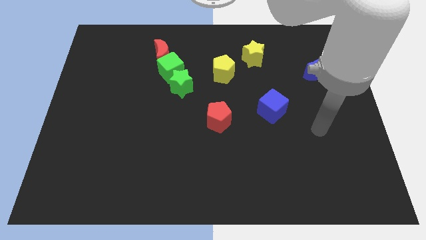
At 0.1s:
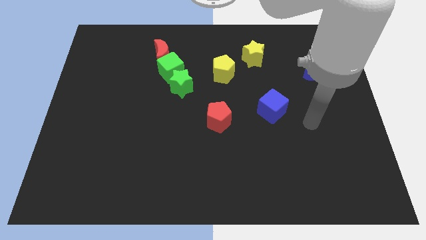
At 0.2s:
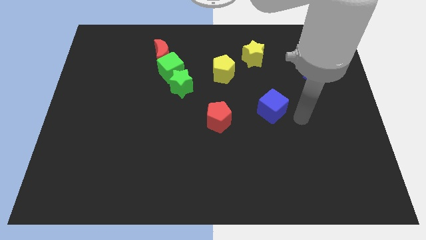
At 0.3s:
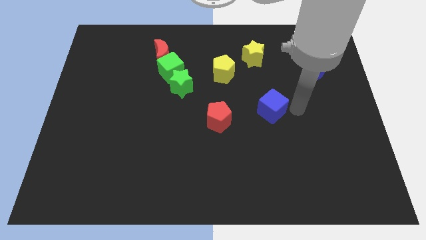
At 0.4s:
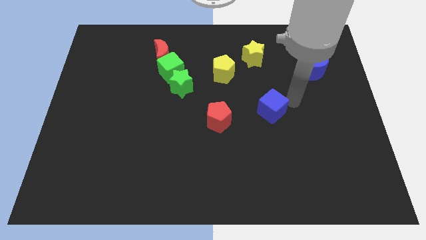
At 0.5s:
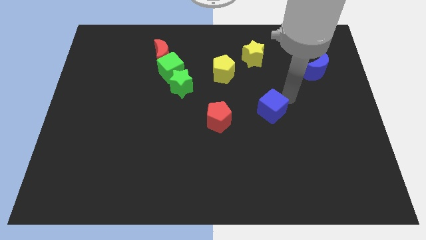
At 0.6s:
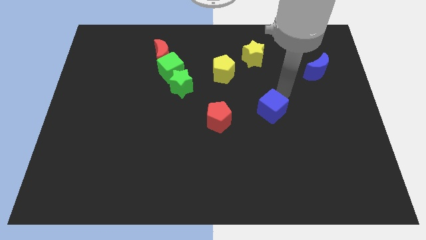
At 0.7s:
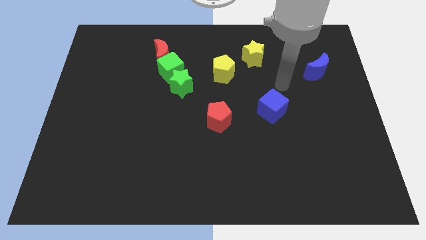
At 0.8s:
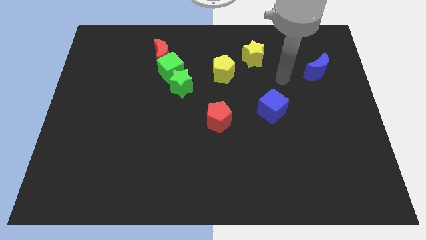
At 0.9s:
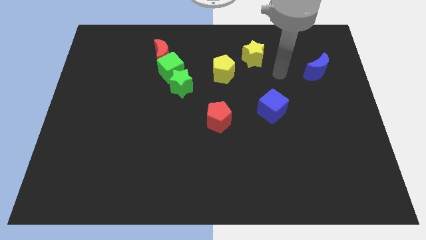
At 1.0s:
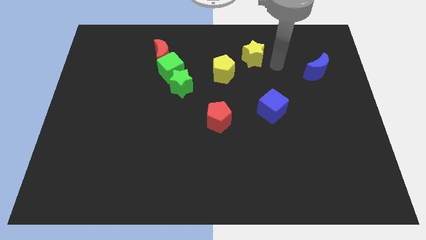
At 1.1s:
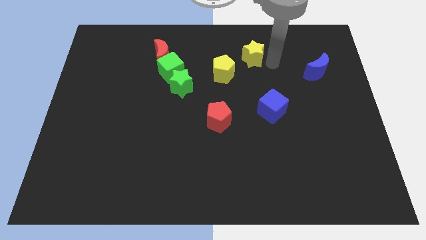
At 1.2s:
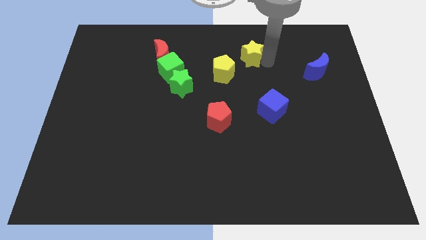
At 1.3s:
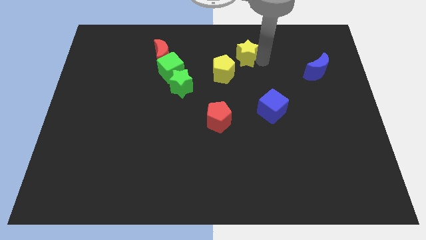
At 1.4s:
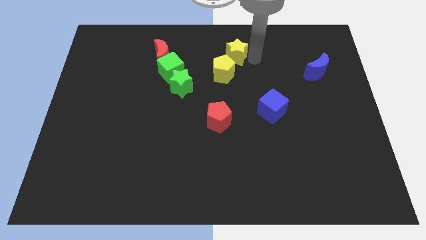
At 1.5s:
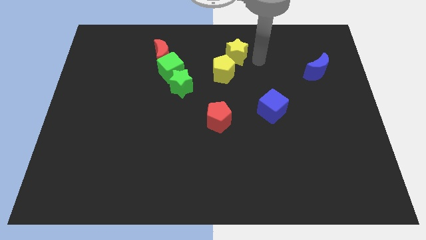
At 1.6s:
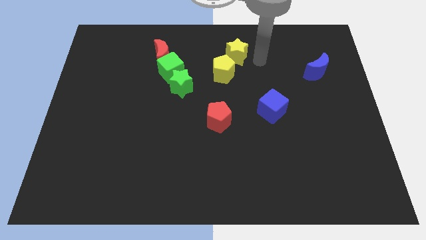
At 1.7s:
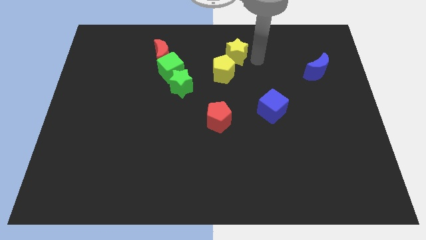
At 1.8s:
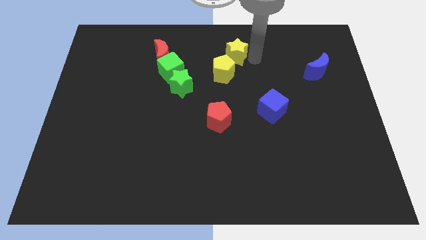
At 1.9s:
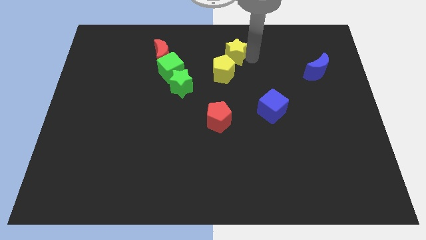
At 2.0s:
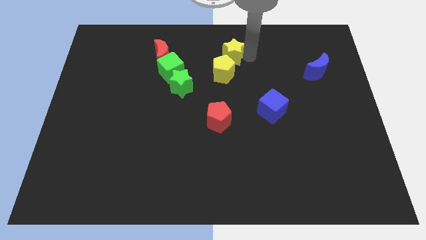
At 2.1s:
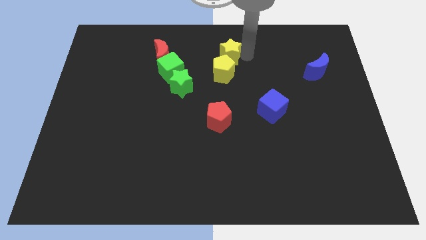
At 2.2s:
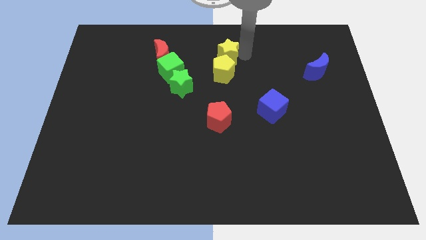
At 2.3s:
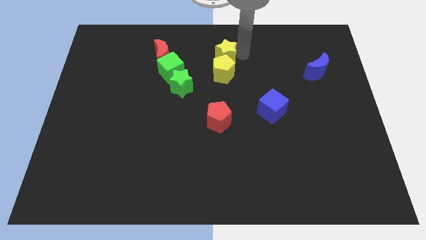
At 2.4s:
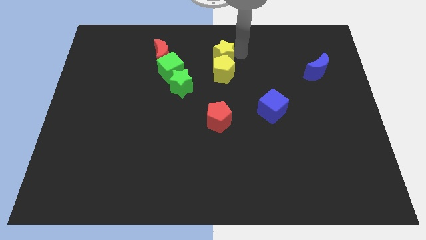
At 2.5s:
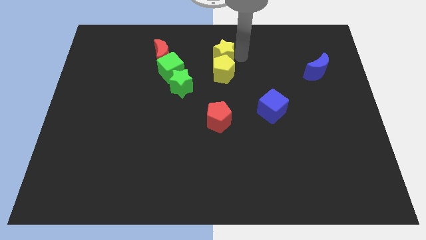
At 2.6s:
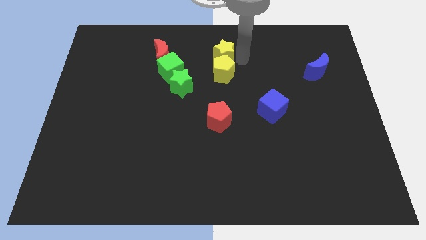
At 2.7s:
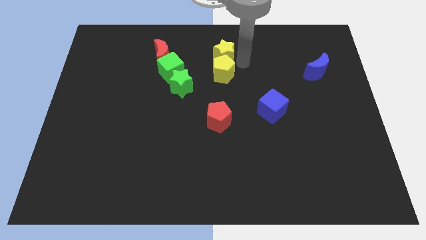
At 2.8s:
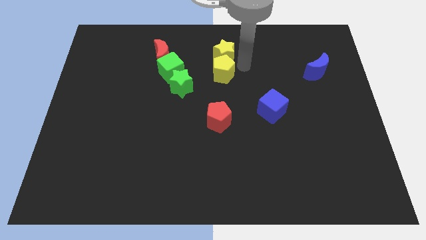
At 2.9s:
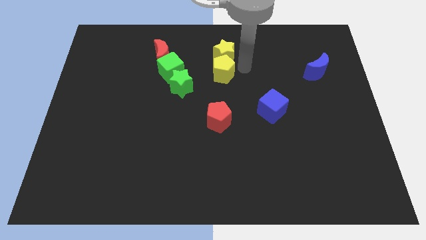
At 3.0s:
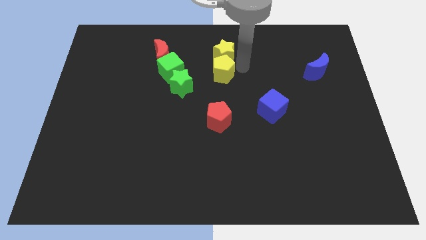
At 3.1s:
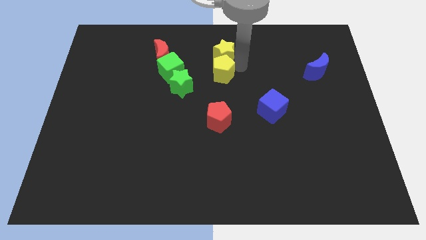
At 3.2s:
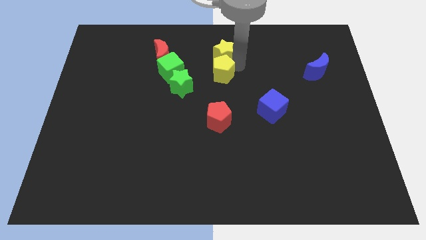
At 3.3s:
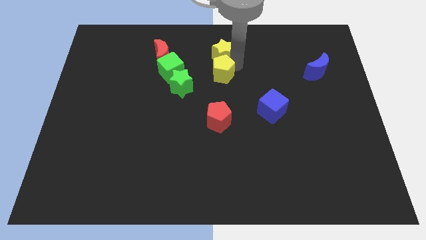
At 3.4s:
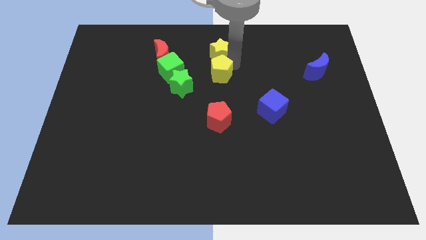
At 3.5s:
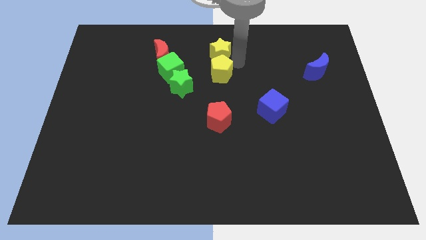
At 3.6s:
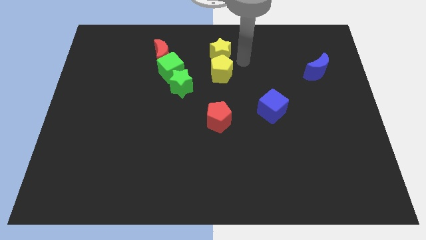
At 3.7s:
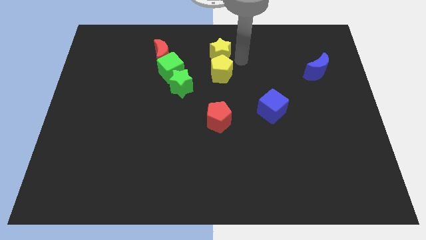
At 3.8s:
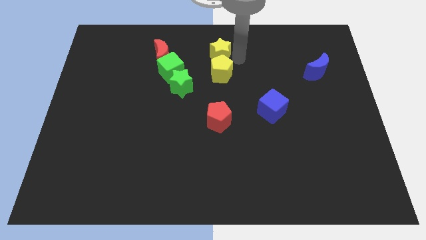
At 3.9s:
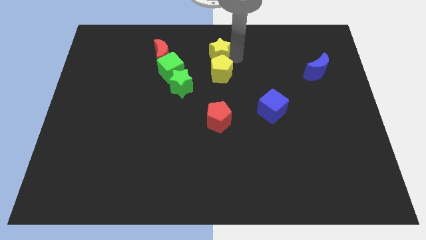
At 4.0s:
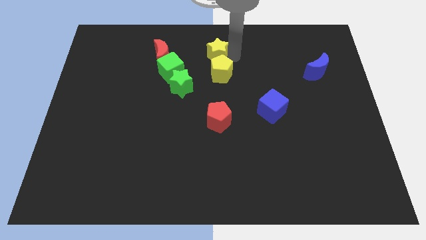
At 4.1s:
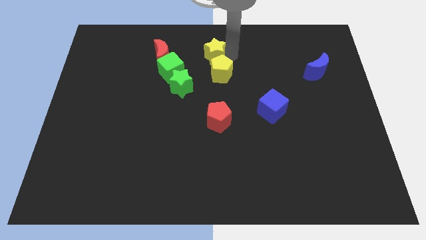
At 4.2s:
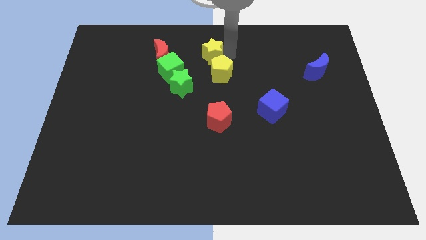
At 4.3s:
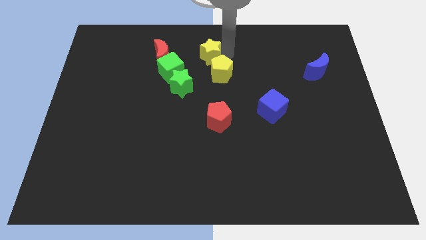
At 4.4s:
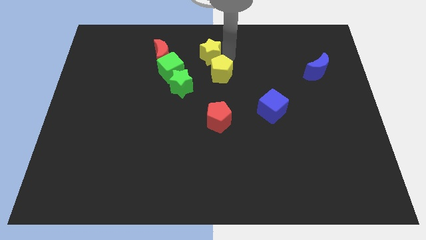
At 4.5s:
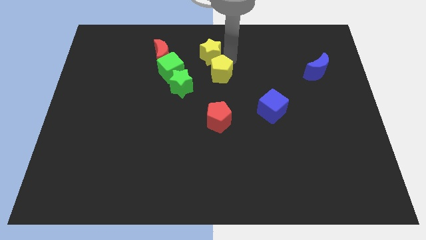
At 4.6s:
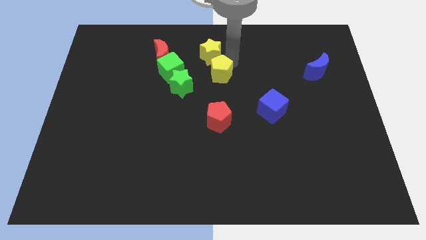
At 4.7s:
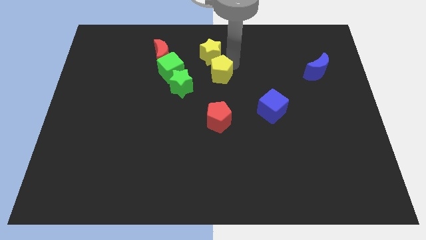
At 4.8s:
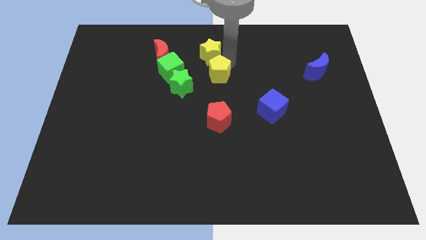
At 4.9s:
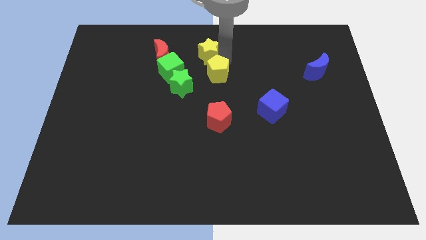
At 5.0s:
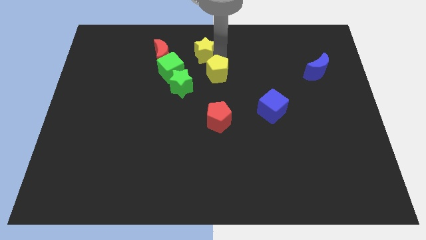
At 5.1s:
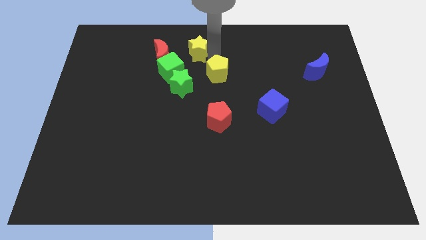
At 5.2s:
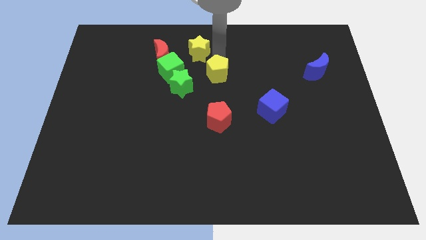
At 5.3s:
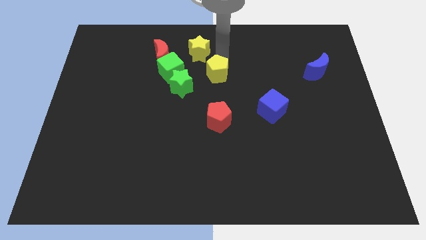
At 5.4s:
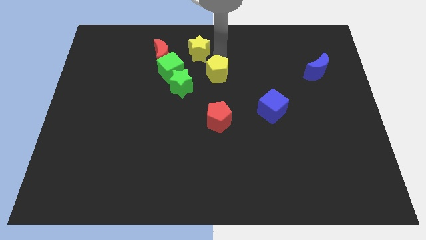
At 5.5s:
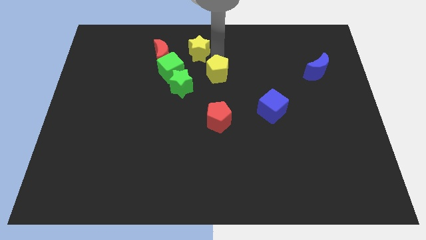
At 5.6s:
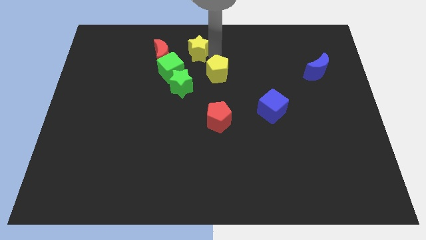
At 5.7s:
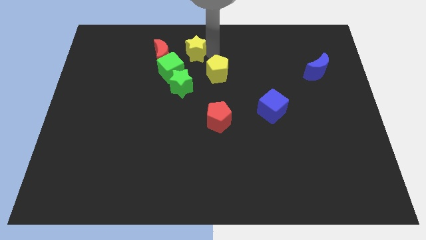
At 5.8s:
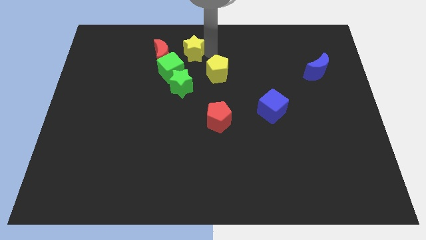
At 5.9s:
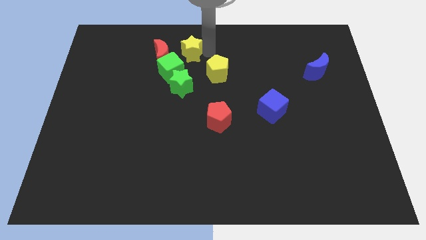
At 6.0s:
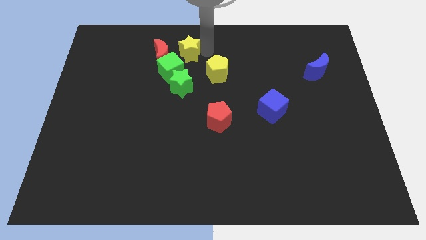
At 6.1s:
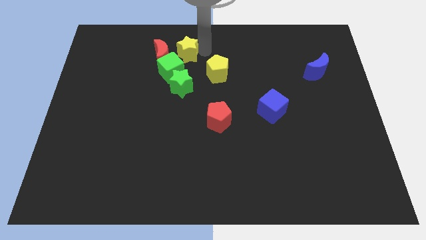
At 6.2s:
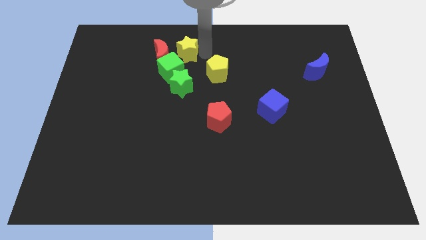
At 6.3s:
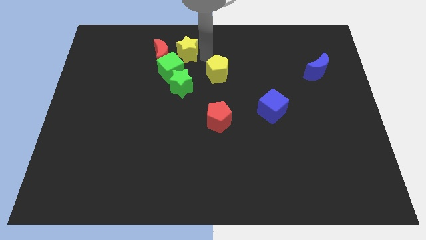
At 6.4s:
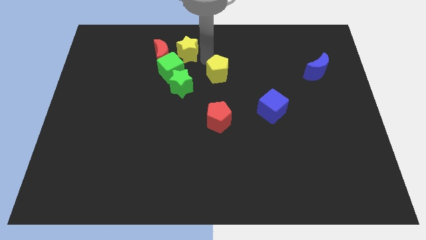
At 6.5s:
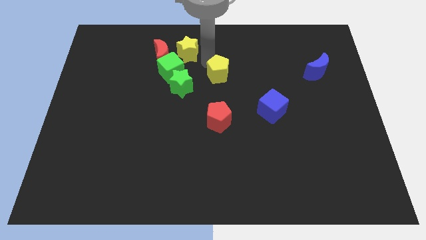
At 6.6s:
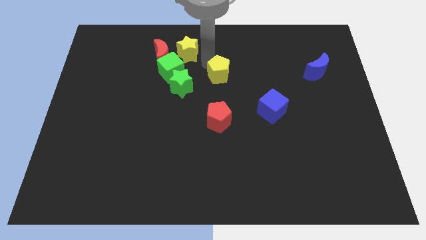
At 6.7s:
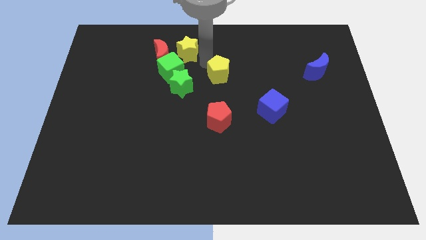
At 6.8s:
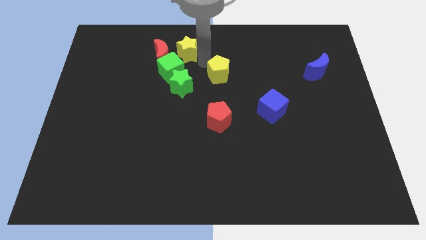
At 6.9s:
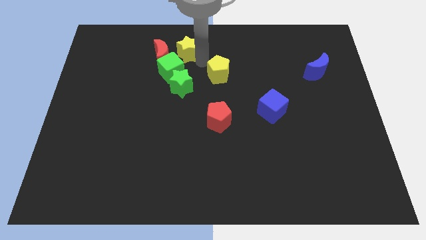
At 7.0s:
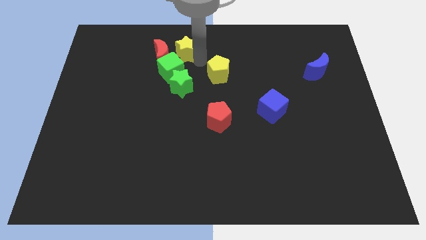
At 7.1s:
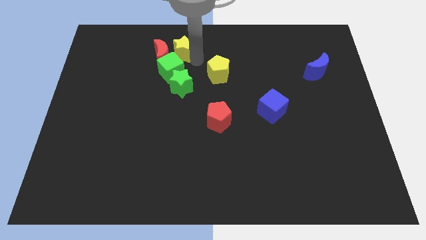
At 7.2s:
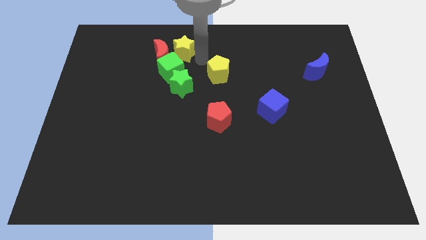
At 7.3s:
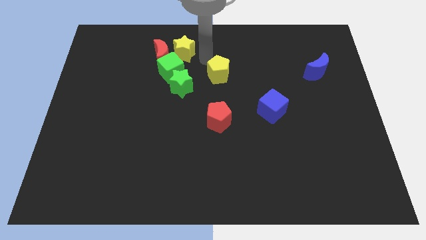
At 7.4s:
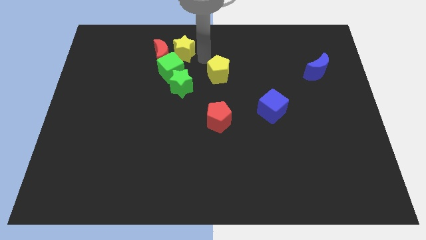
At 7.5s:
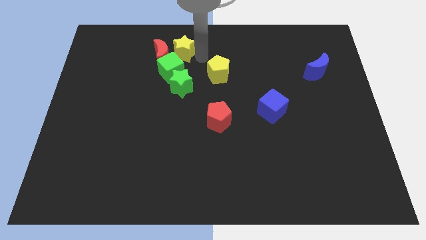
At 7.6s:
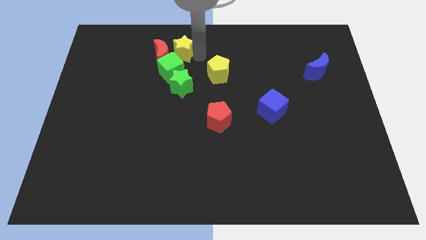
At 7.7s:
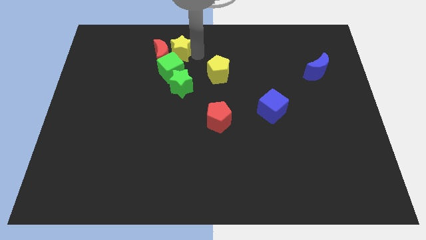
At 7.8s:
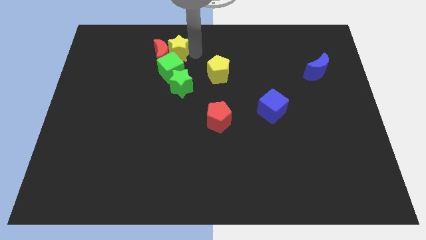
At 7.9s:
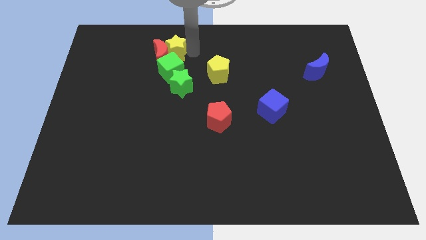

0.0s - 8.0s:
move the yellow star to the left

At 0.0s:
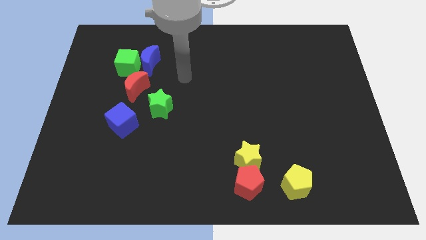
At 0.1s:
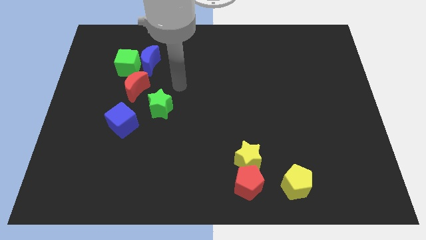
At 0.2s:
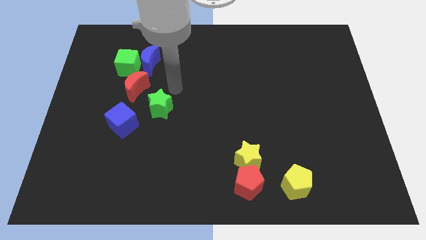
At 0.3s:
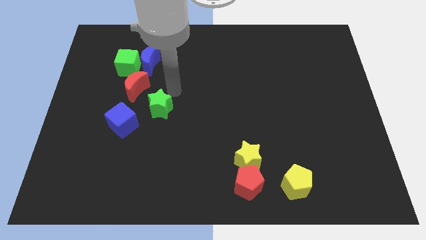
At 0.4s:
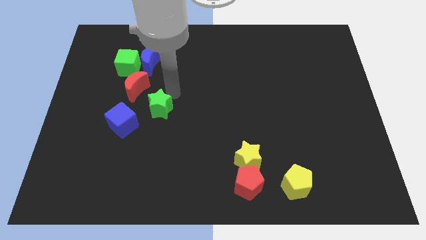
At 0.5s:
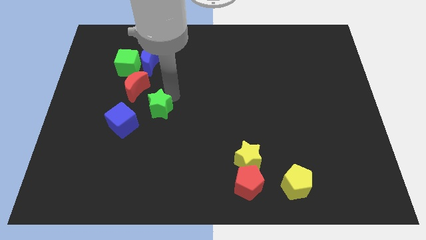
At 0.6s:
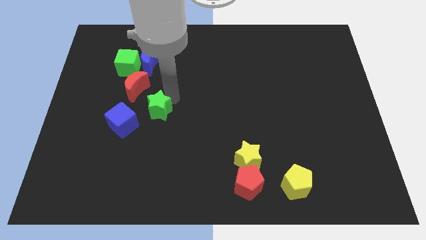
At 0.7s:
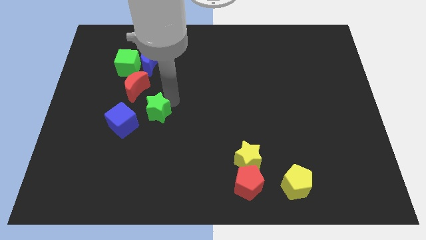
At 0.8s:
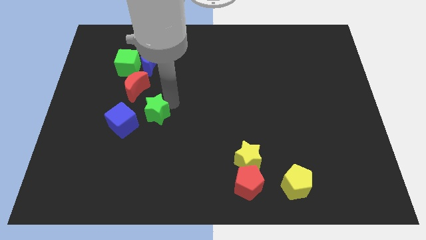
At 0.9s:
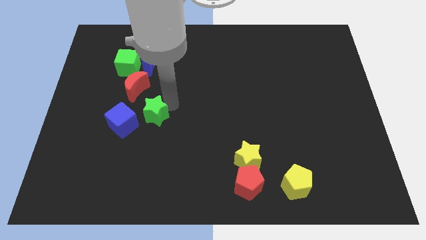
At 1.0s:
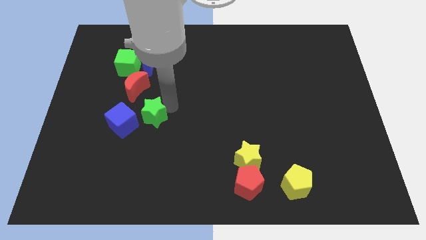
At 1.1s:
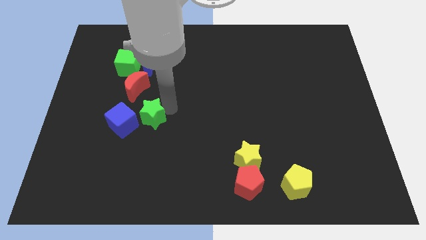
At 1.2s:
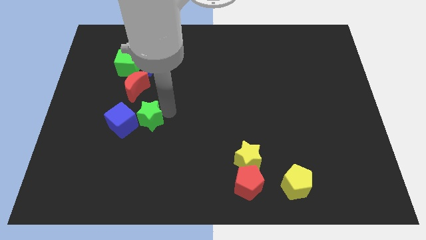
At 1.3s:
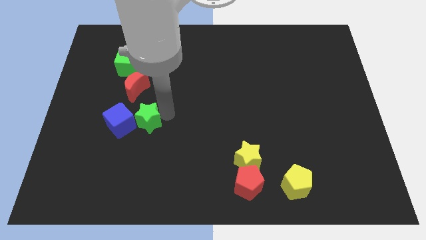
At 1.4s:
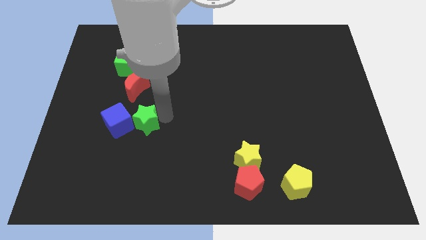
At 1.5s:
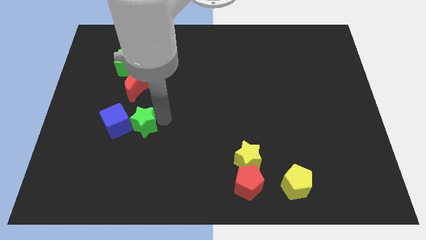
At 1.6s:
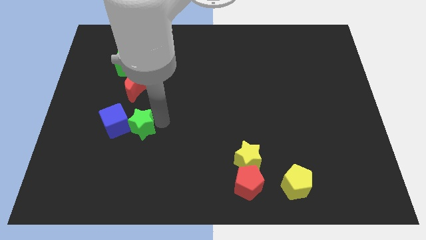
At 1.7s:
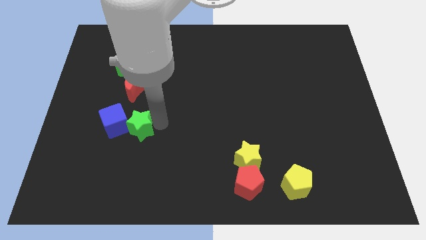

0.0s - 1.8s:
push the green star somewhat down and then to the left
